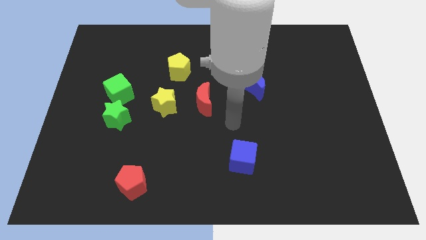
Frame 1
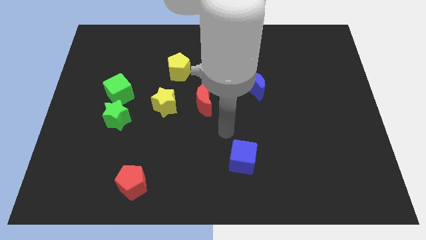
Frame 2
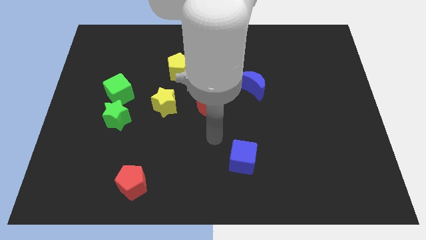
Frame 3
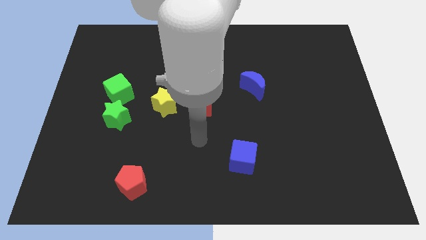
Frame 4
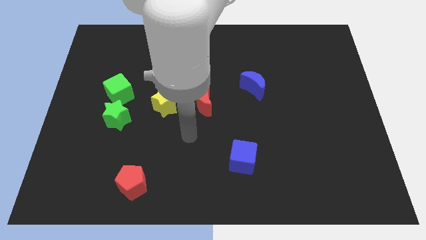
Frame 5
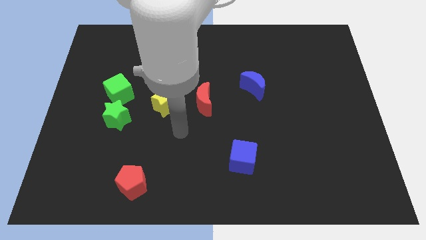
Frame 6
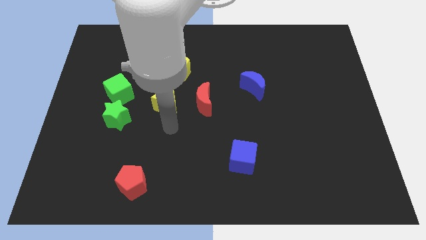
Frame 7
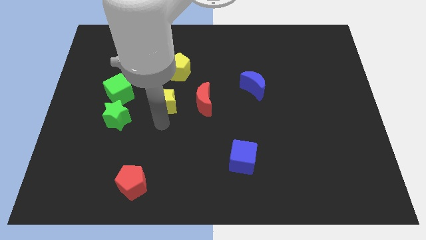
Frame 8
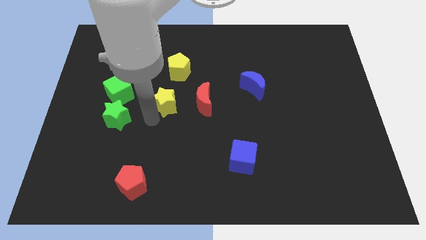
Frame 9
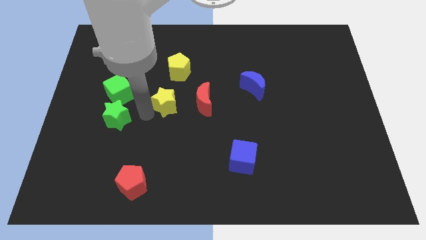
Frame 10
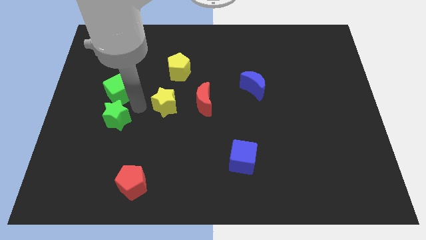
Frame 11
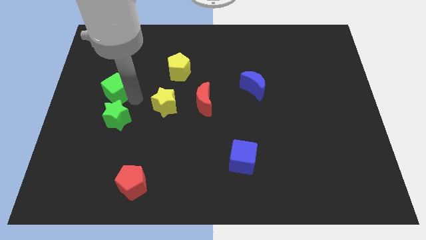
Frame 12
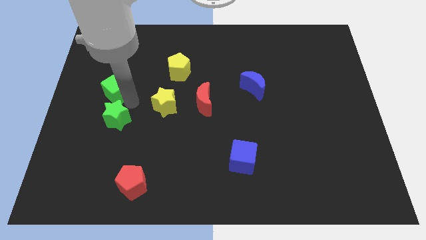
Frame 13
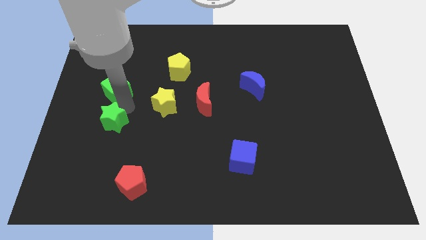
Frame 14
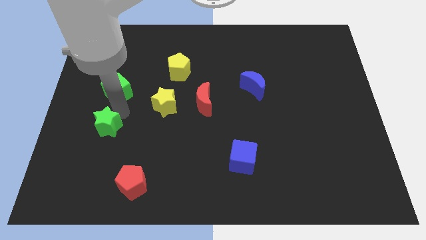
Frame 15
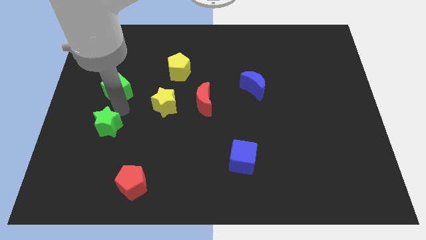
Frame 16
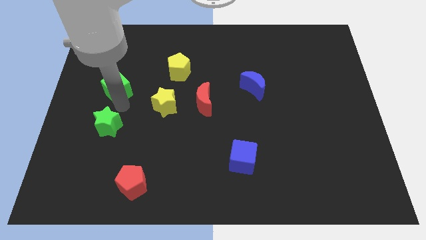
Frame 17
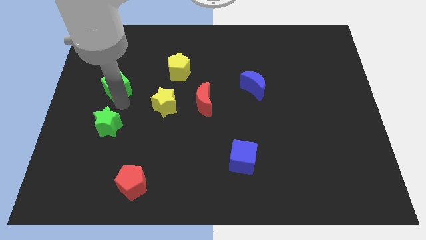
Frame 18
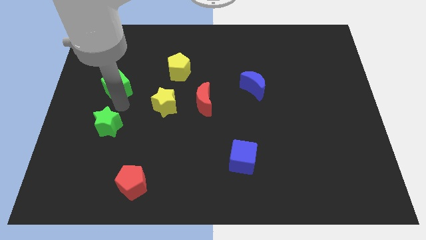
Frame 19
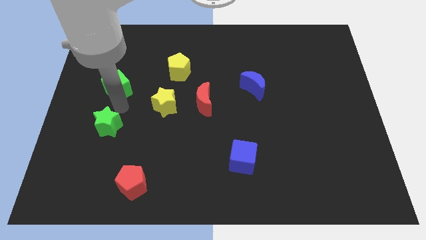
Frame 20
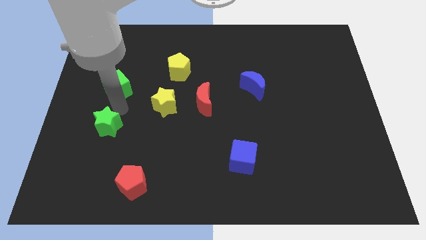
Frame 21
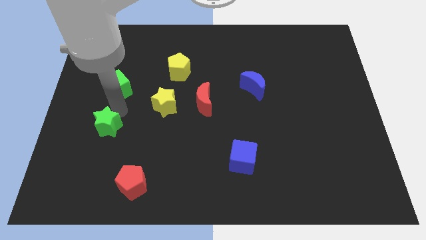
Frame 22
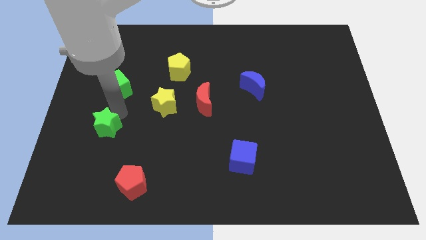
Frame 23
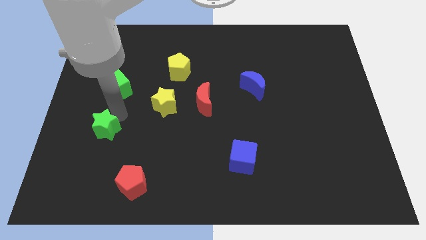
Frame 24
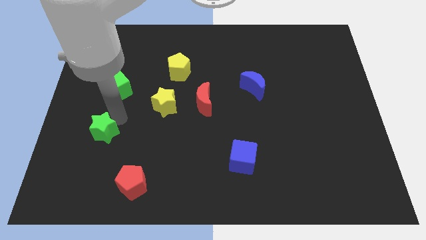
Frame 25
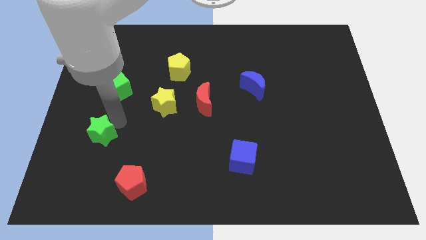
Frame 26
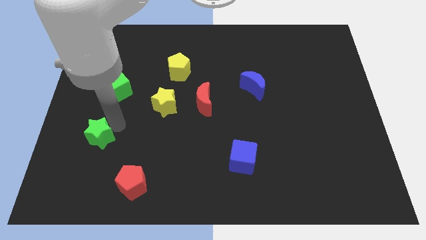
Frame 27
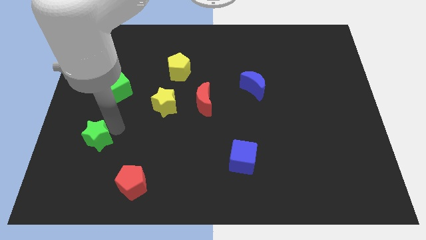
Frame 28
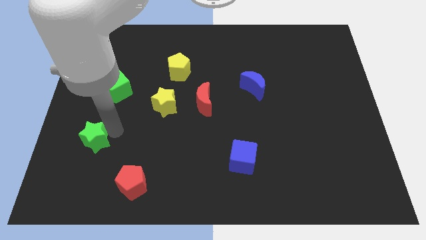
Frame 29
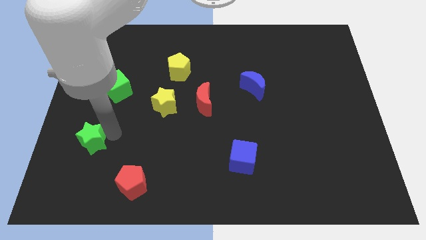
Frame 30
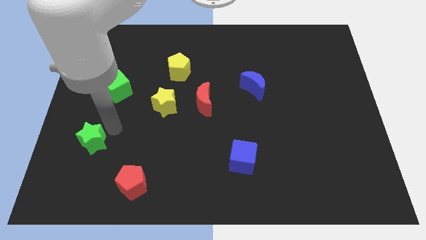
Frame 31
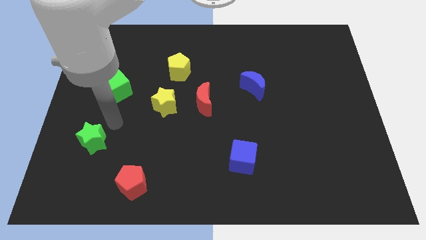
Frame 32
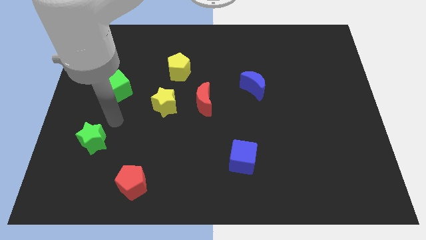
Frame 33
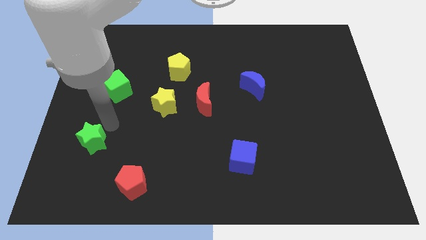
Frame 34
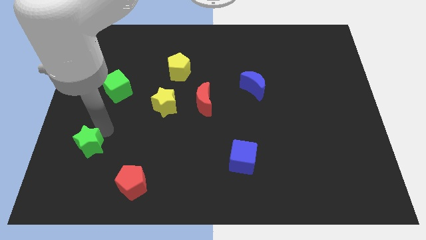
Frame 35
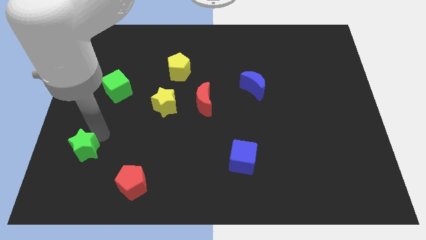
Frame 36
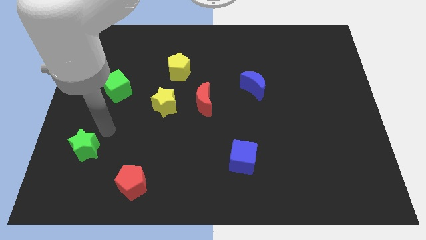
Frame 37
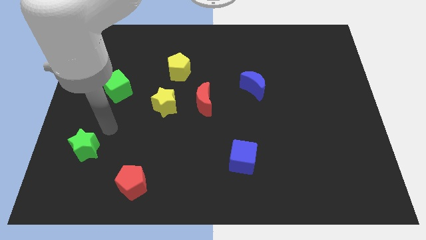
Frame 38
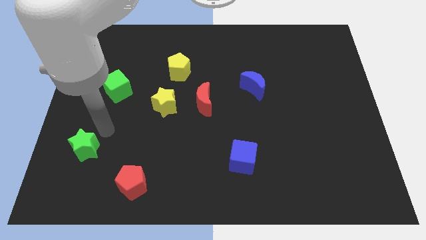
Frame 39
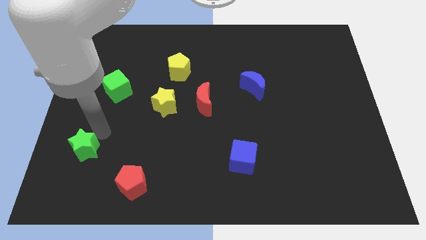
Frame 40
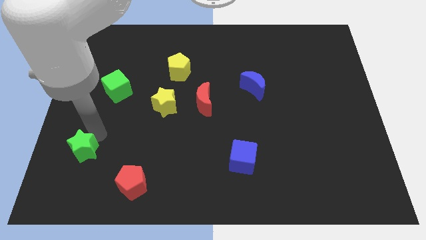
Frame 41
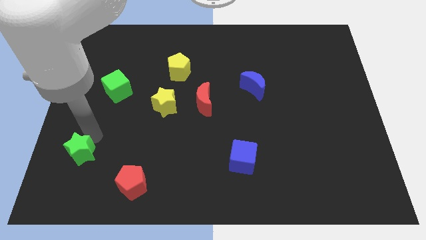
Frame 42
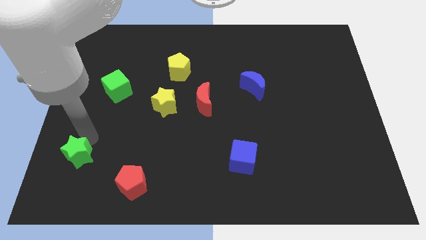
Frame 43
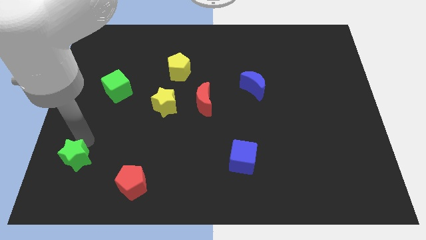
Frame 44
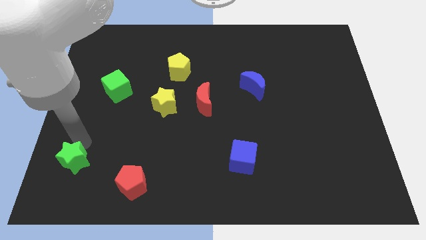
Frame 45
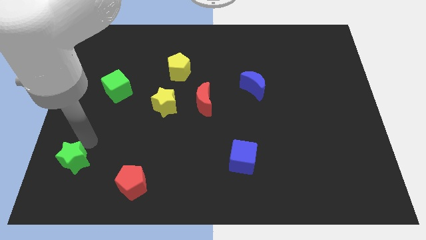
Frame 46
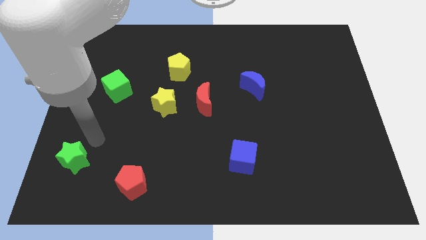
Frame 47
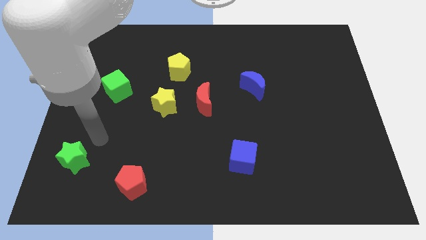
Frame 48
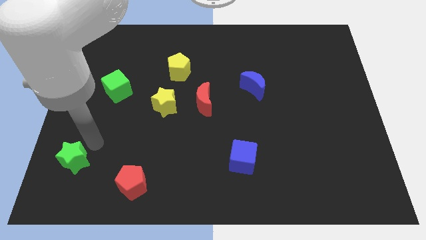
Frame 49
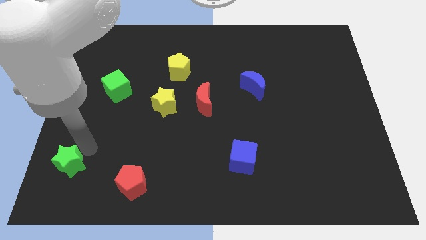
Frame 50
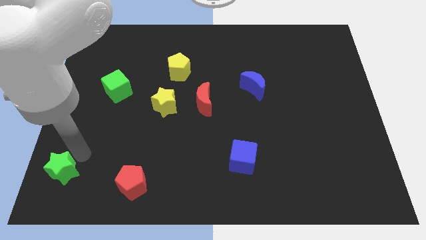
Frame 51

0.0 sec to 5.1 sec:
move the green star to the lower left corner

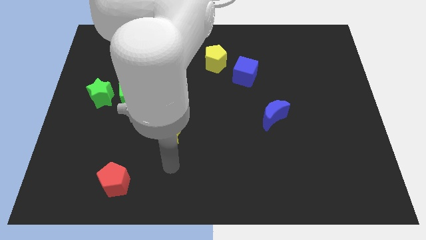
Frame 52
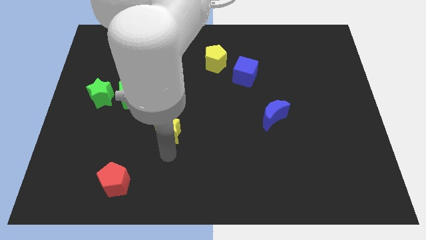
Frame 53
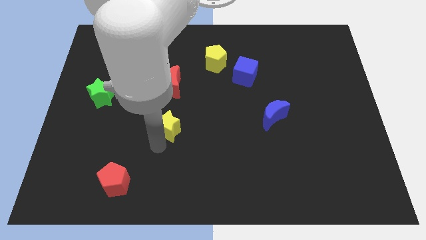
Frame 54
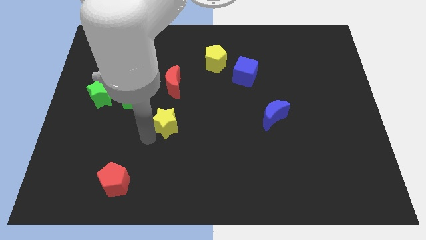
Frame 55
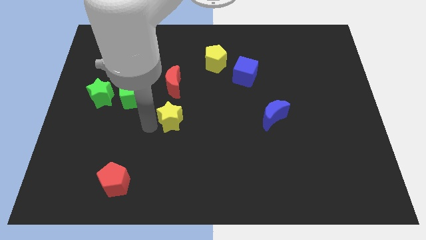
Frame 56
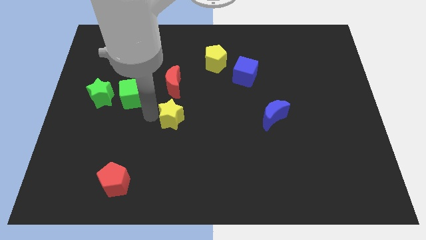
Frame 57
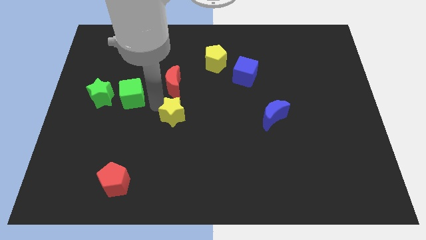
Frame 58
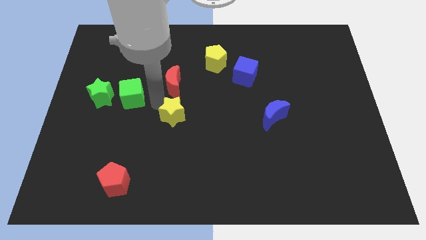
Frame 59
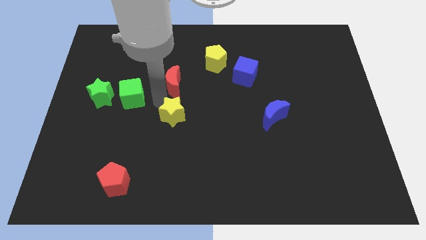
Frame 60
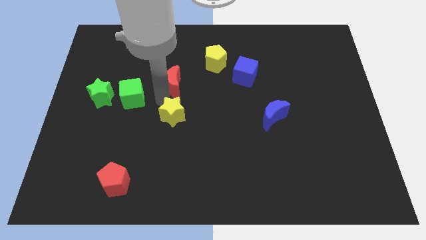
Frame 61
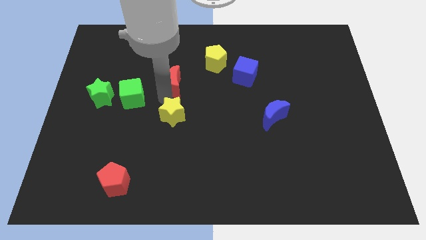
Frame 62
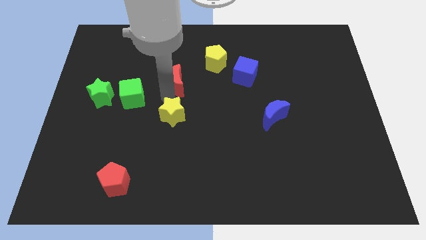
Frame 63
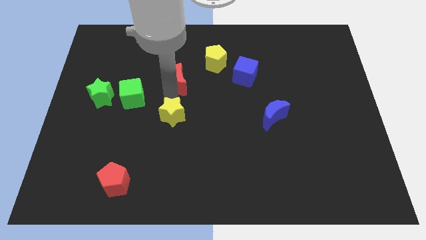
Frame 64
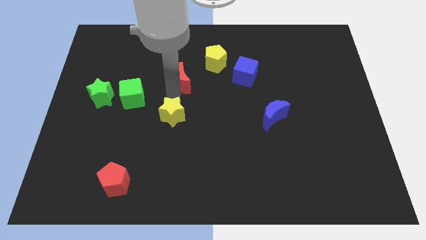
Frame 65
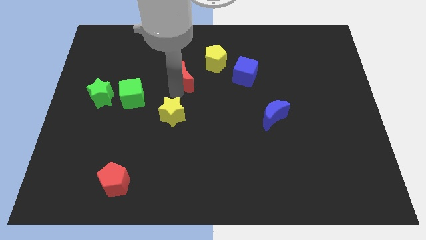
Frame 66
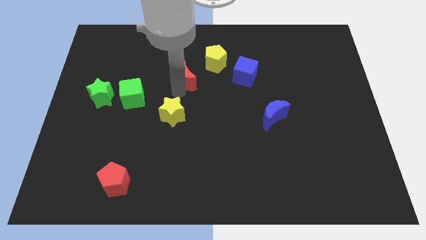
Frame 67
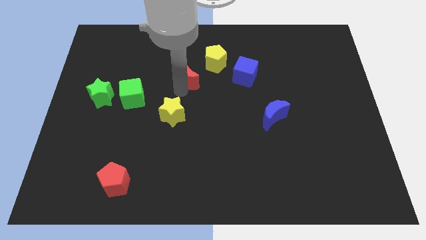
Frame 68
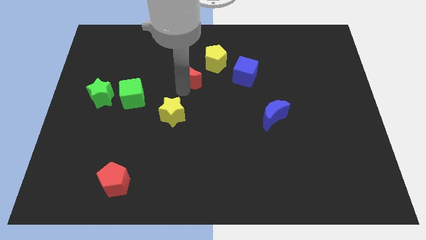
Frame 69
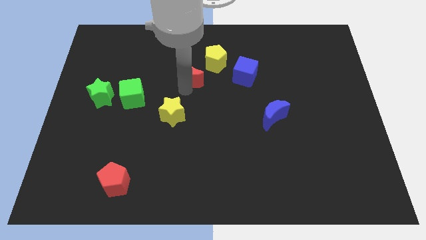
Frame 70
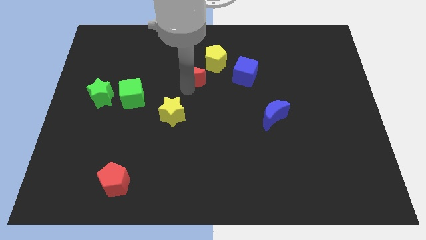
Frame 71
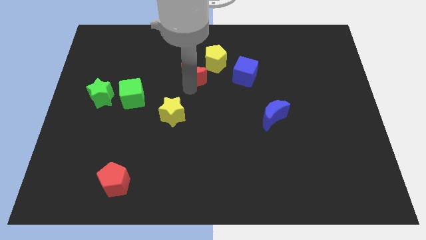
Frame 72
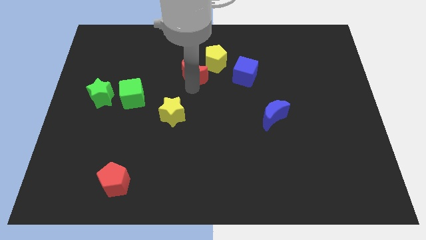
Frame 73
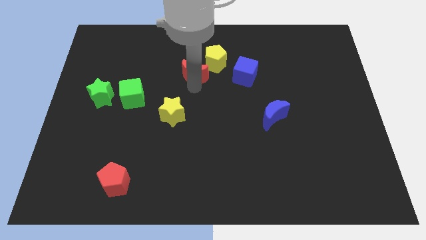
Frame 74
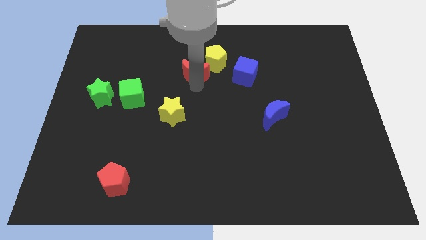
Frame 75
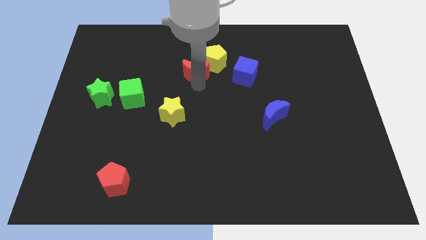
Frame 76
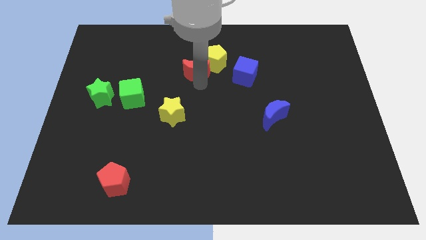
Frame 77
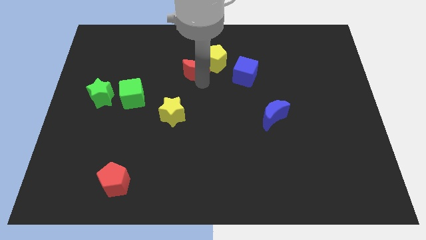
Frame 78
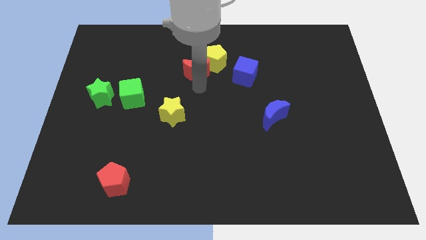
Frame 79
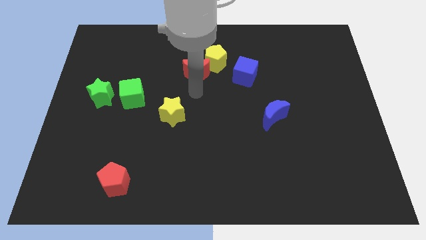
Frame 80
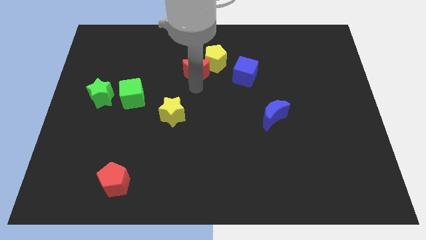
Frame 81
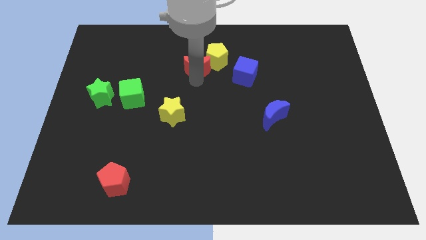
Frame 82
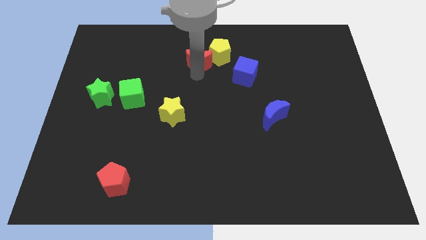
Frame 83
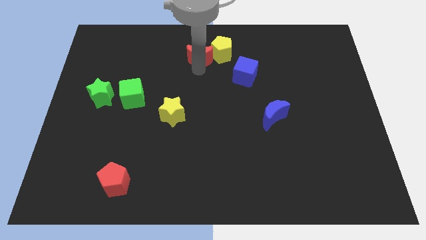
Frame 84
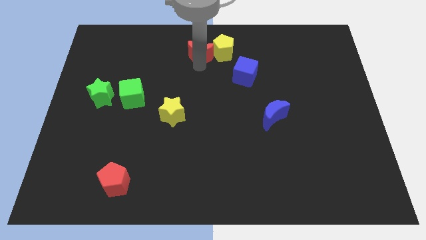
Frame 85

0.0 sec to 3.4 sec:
move the red moon to the towards your base
